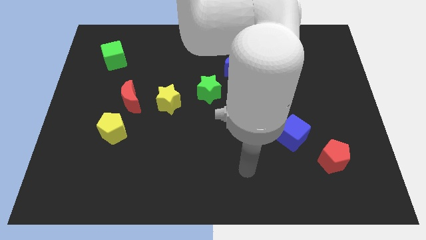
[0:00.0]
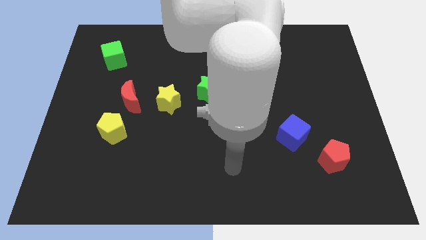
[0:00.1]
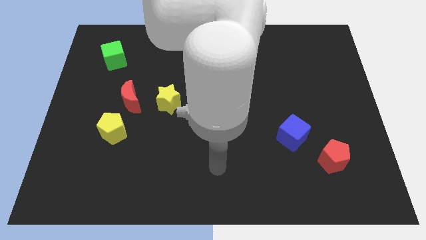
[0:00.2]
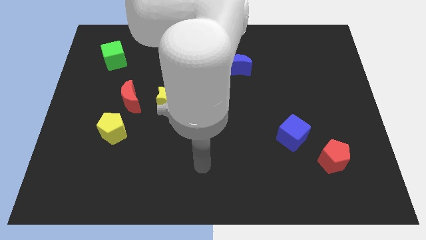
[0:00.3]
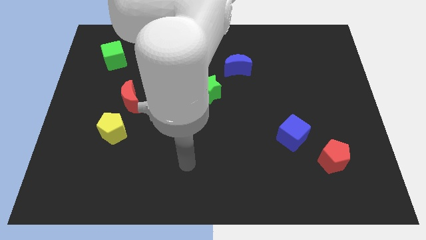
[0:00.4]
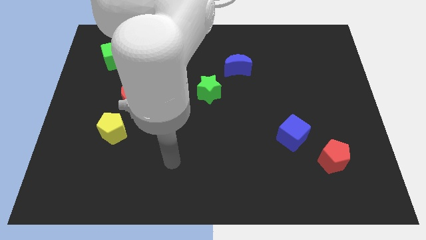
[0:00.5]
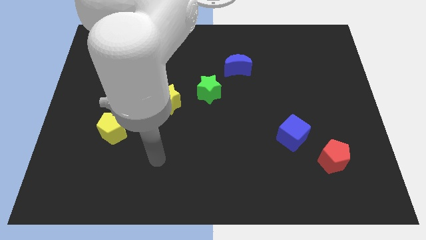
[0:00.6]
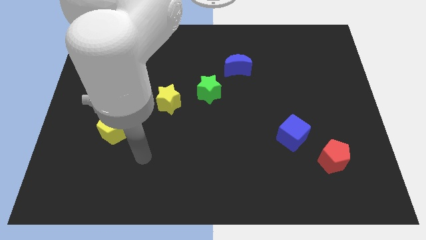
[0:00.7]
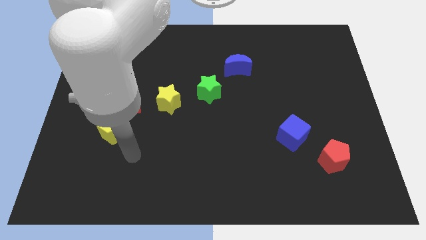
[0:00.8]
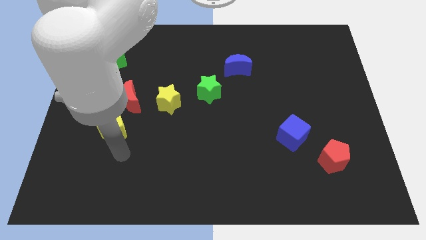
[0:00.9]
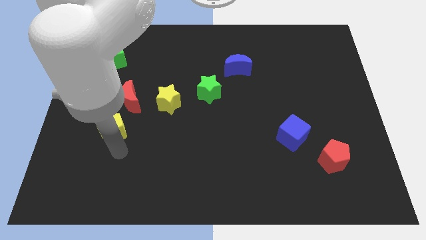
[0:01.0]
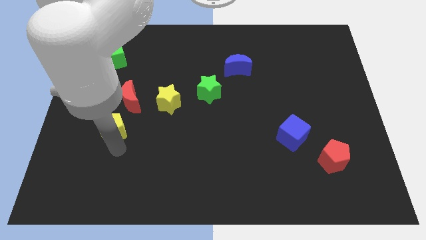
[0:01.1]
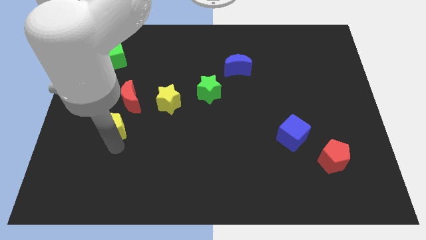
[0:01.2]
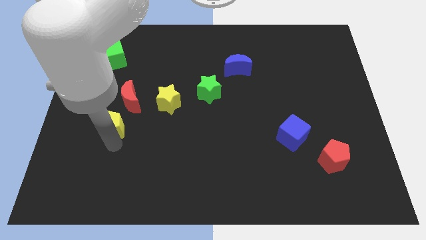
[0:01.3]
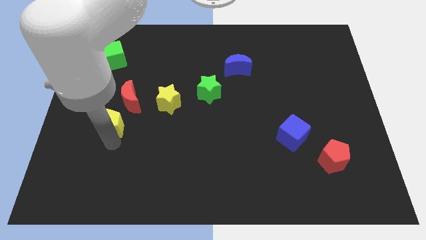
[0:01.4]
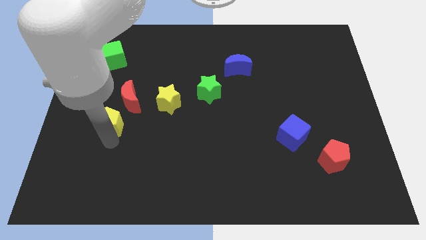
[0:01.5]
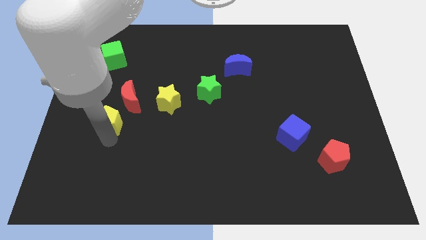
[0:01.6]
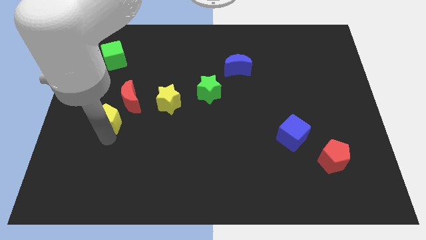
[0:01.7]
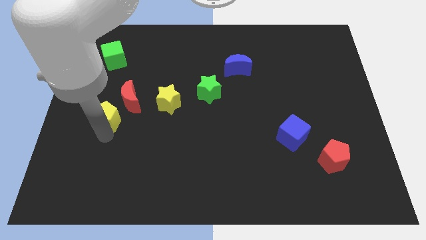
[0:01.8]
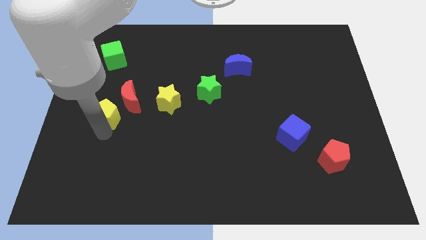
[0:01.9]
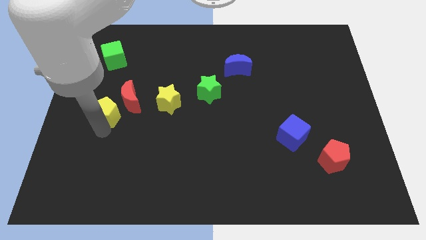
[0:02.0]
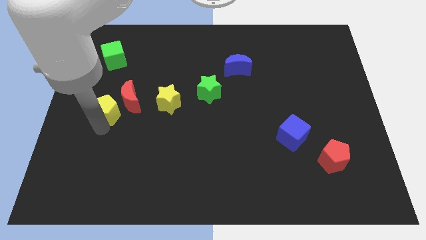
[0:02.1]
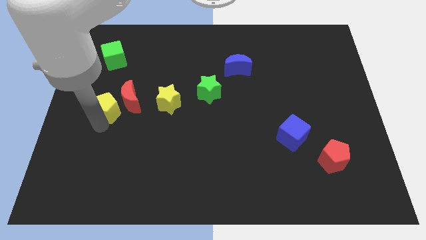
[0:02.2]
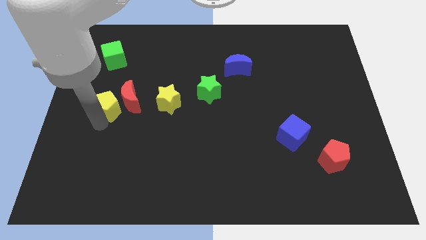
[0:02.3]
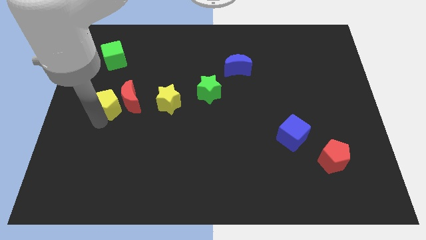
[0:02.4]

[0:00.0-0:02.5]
slightly slide the yellow pentagon upwards

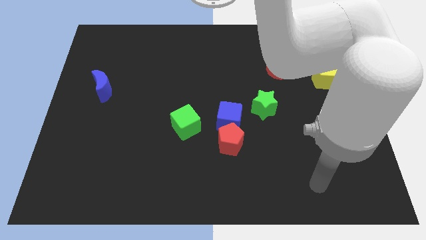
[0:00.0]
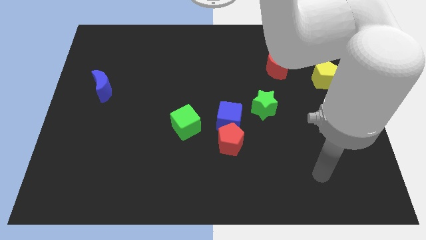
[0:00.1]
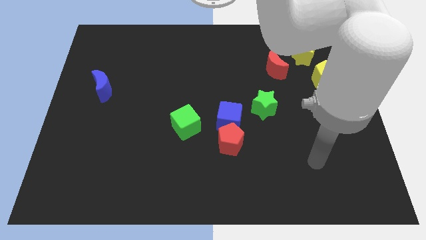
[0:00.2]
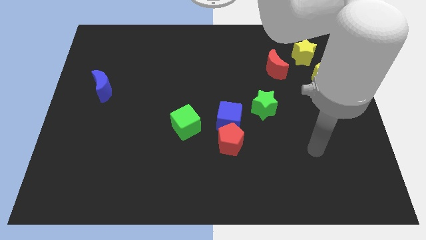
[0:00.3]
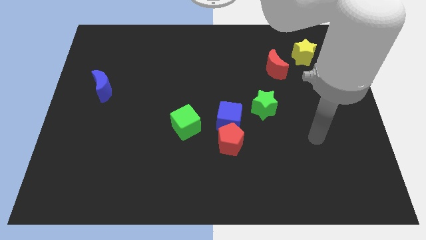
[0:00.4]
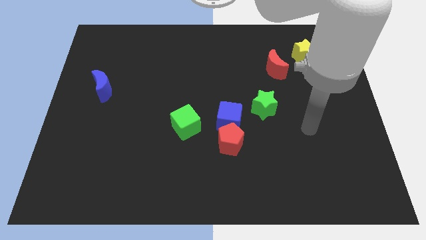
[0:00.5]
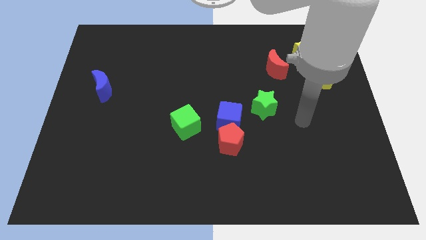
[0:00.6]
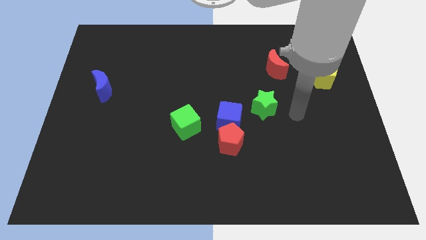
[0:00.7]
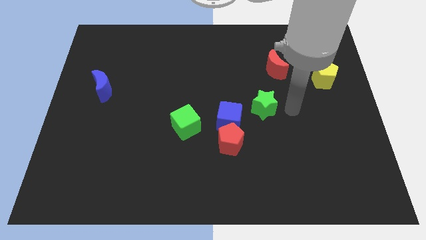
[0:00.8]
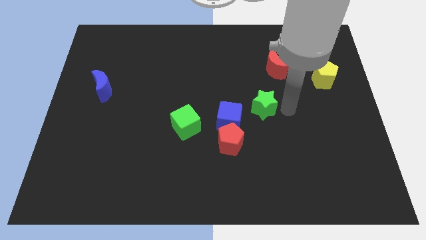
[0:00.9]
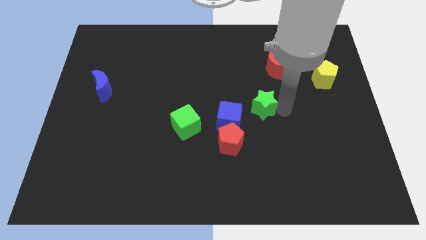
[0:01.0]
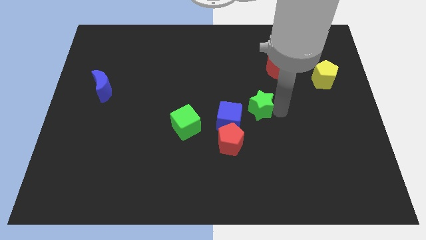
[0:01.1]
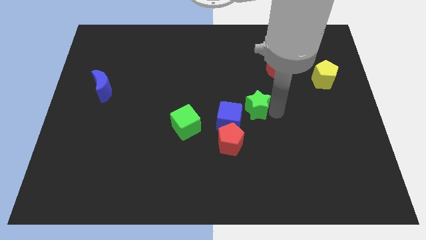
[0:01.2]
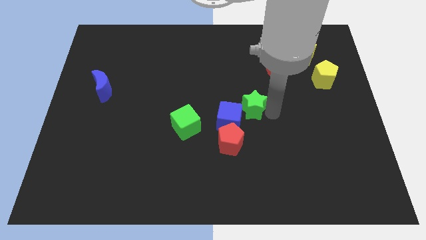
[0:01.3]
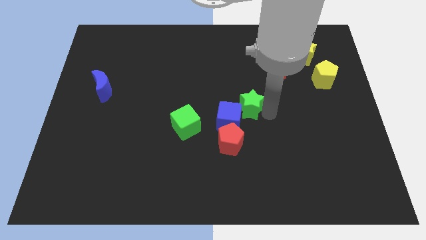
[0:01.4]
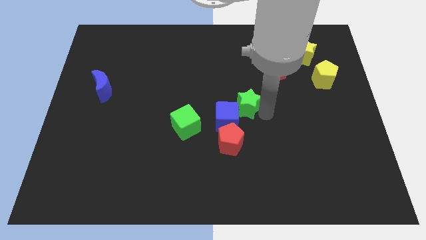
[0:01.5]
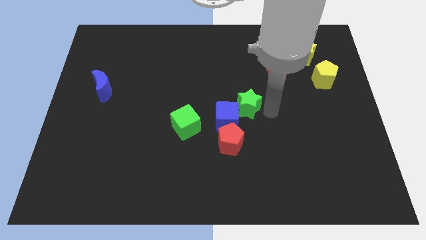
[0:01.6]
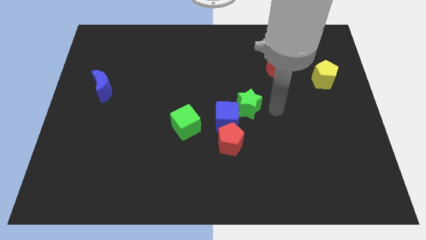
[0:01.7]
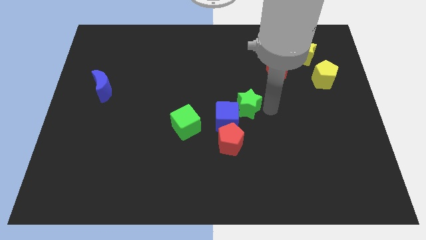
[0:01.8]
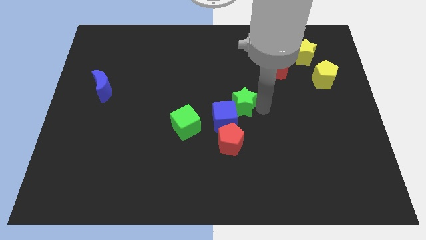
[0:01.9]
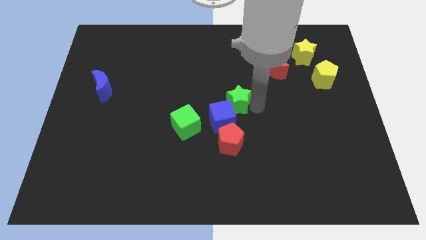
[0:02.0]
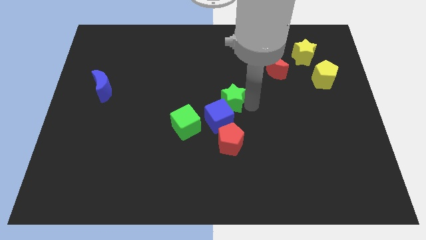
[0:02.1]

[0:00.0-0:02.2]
move the green star slightly to the left

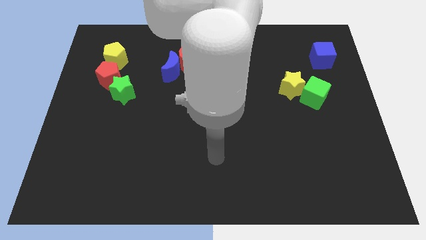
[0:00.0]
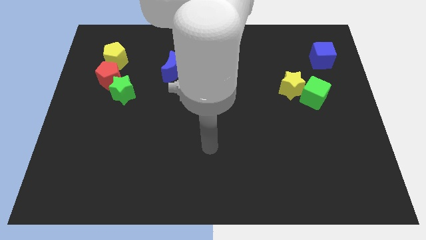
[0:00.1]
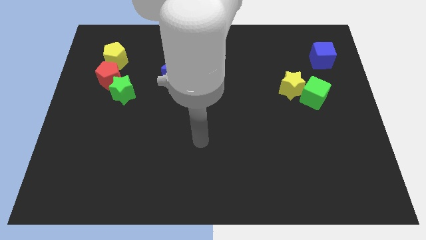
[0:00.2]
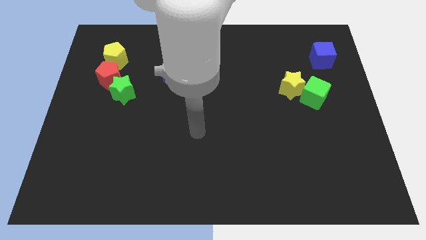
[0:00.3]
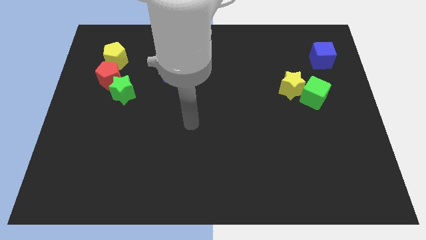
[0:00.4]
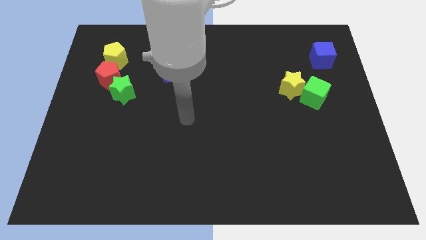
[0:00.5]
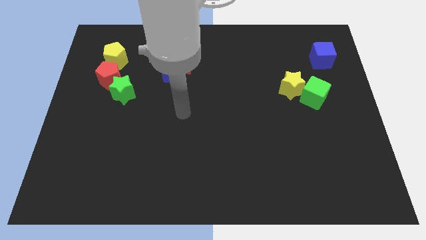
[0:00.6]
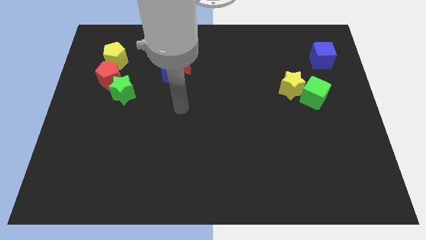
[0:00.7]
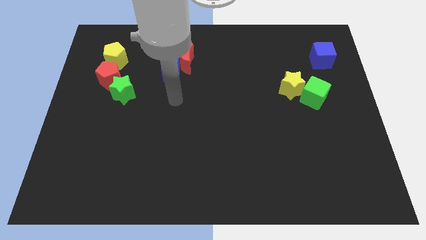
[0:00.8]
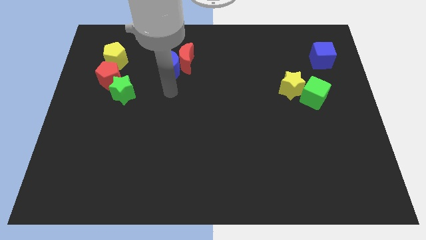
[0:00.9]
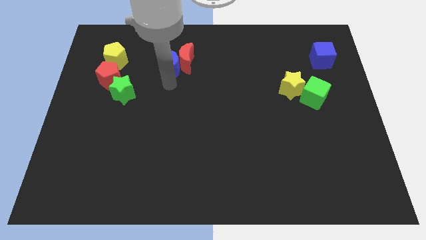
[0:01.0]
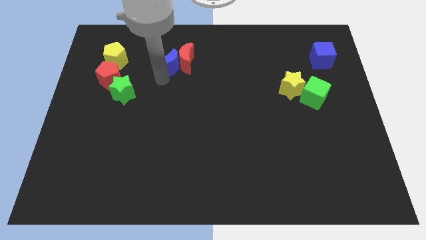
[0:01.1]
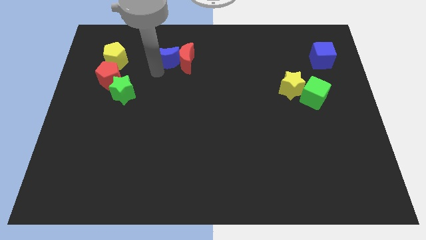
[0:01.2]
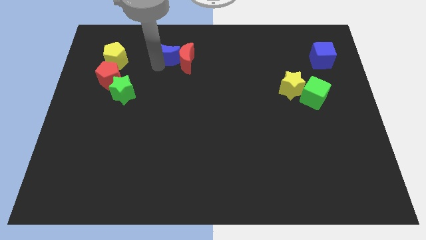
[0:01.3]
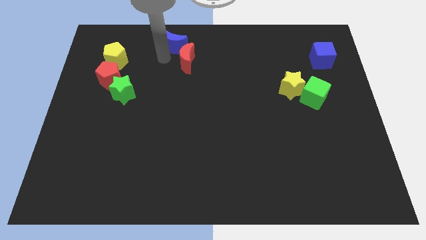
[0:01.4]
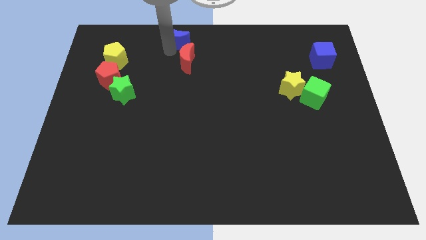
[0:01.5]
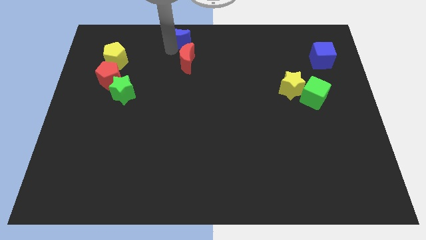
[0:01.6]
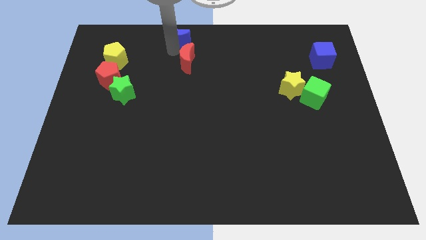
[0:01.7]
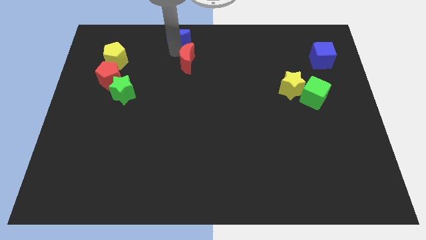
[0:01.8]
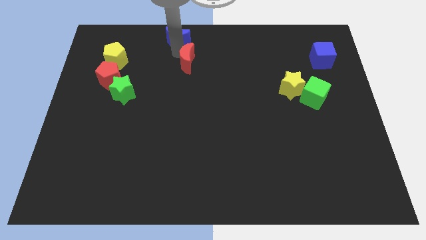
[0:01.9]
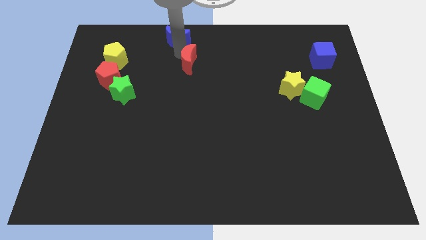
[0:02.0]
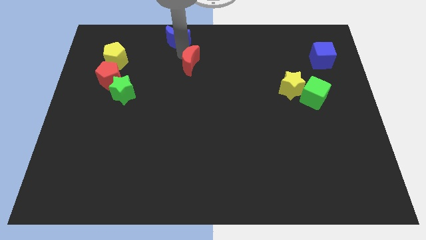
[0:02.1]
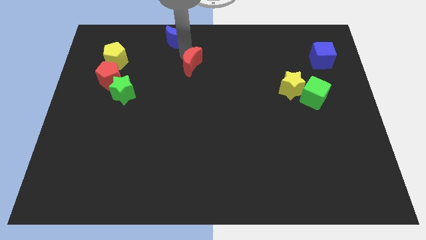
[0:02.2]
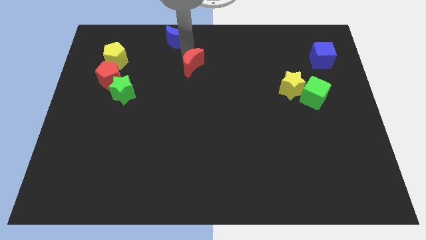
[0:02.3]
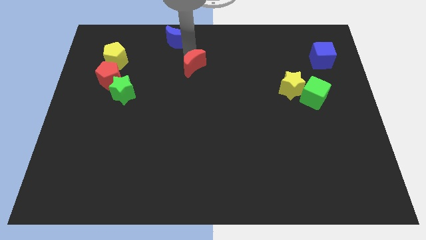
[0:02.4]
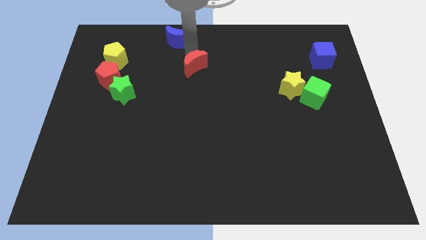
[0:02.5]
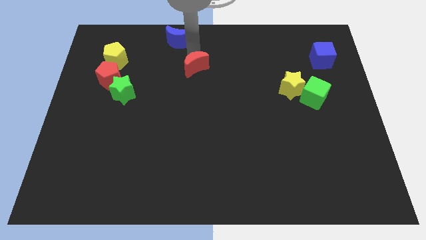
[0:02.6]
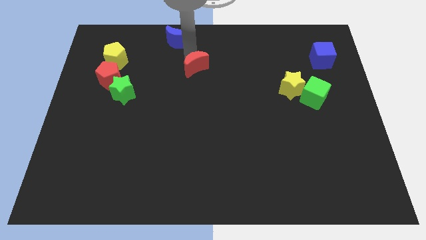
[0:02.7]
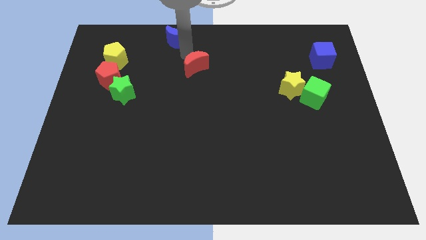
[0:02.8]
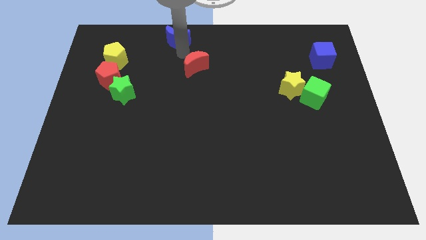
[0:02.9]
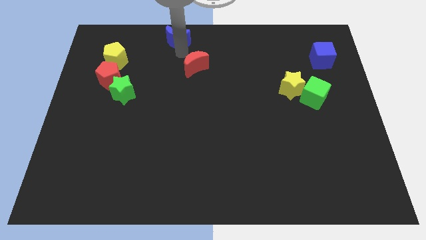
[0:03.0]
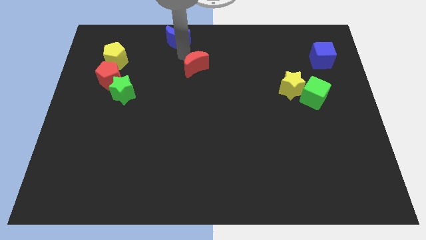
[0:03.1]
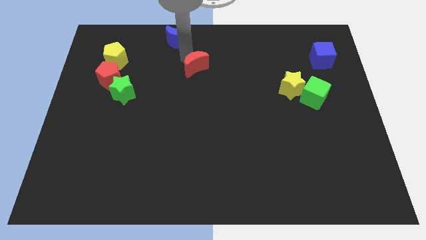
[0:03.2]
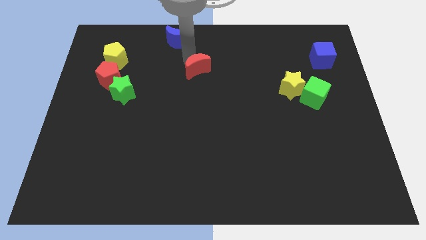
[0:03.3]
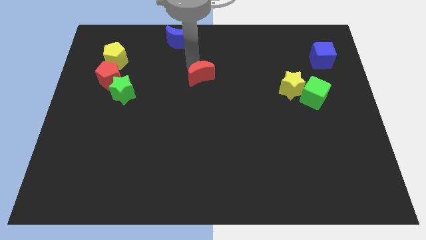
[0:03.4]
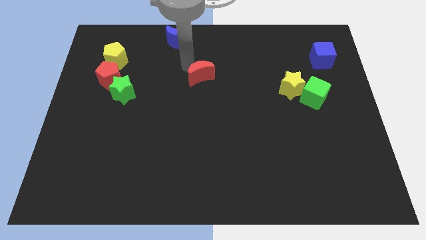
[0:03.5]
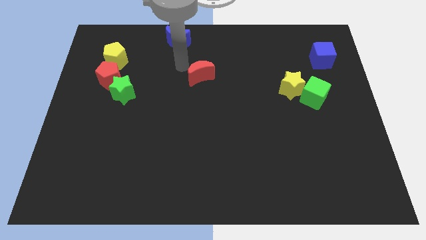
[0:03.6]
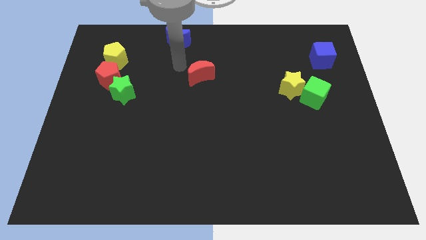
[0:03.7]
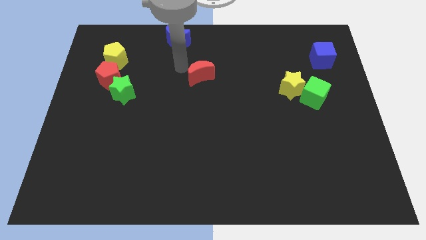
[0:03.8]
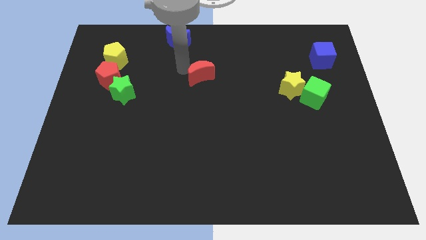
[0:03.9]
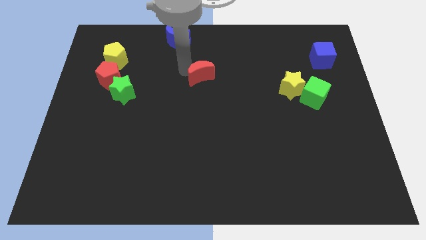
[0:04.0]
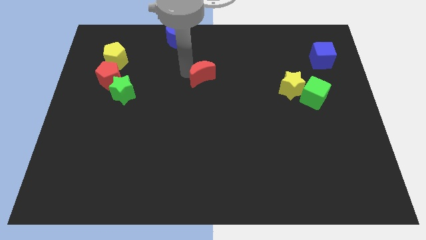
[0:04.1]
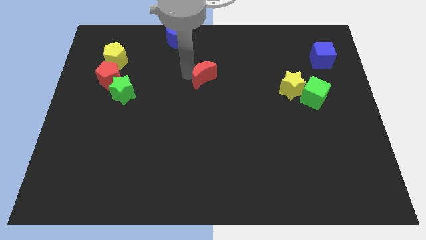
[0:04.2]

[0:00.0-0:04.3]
slide the red moon diagonally downwards and right a little bit
